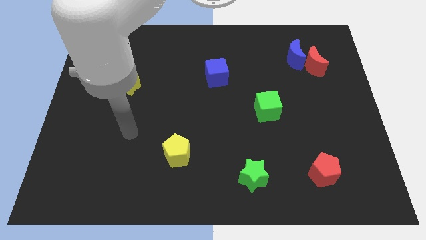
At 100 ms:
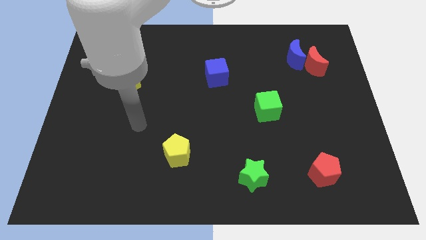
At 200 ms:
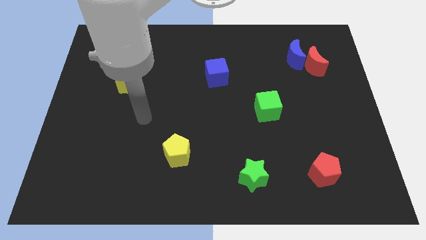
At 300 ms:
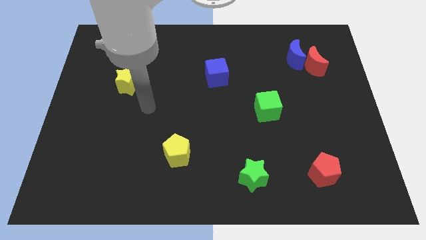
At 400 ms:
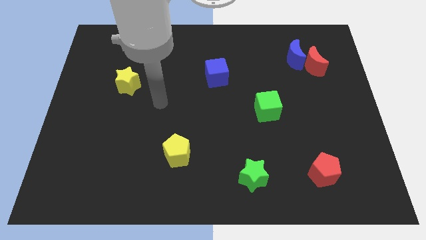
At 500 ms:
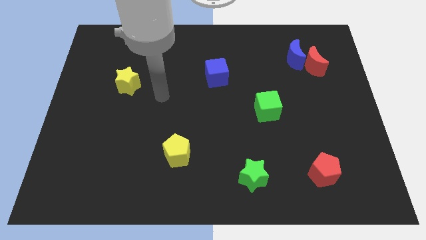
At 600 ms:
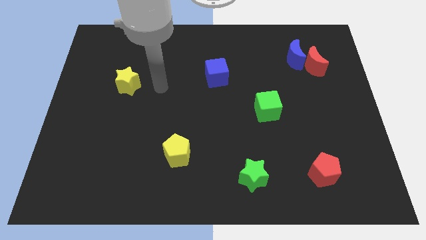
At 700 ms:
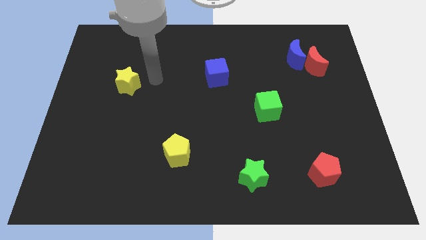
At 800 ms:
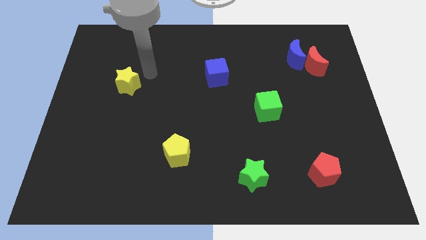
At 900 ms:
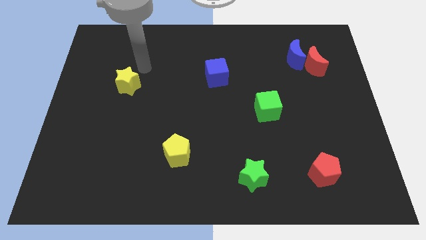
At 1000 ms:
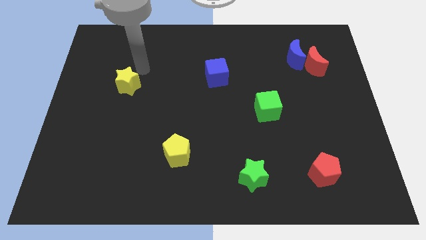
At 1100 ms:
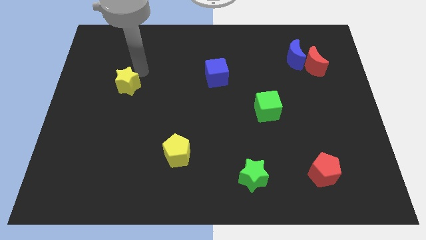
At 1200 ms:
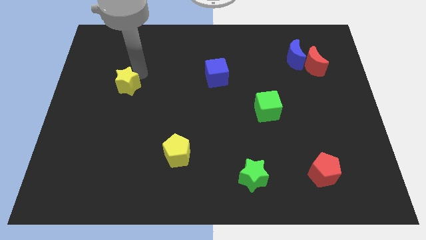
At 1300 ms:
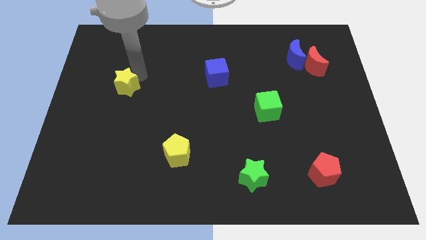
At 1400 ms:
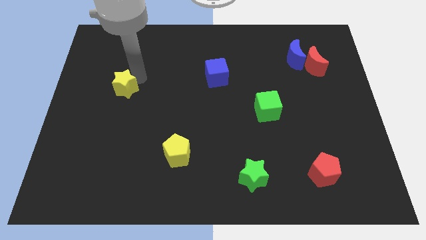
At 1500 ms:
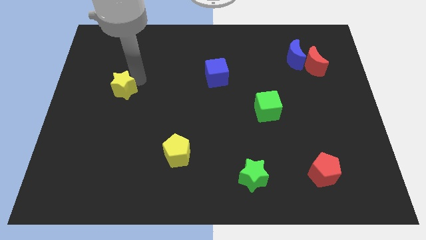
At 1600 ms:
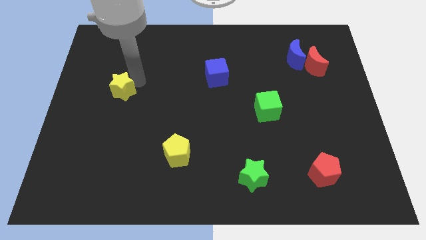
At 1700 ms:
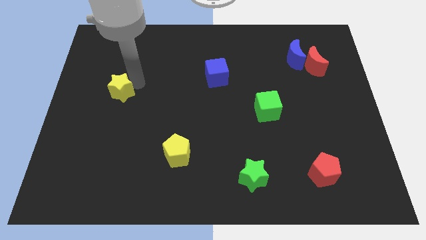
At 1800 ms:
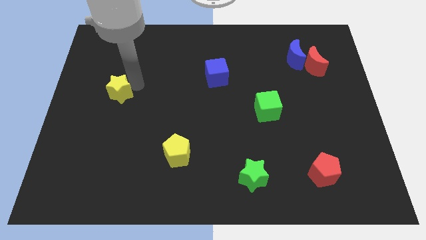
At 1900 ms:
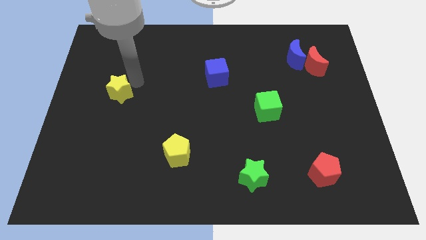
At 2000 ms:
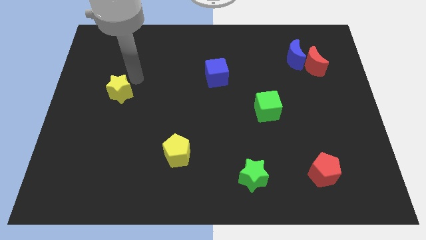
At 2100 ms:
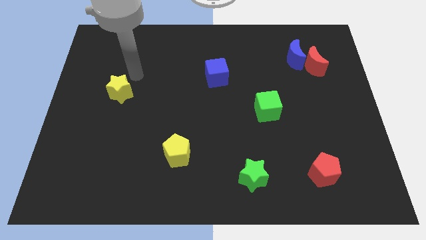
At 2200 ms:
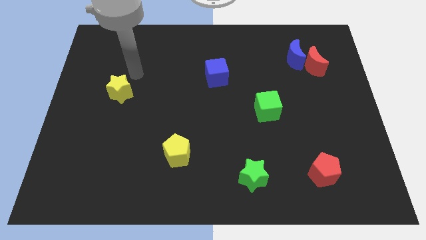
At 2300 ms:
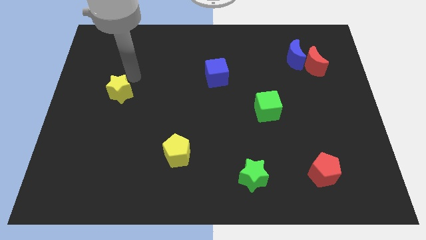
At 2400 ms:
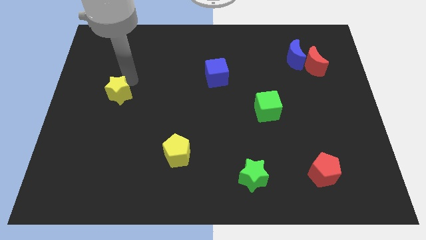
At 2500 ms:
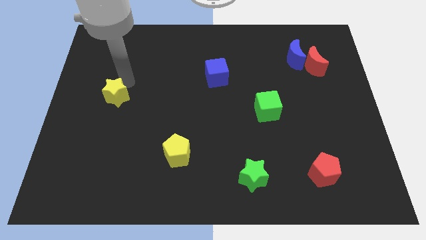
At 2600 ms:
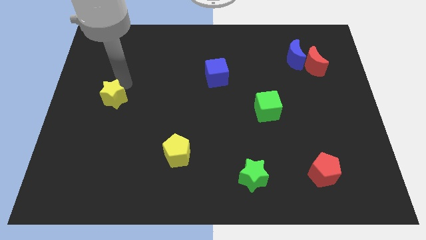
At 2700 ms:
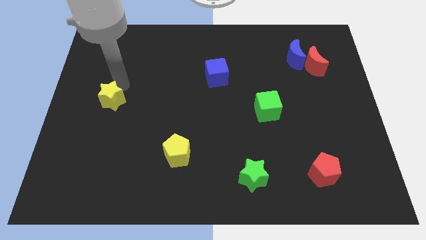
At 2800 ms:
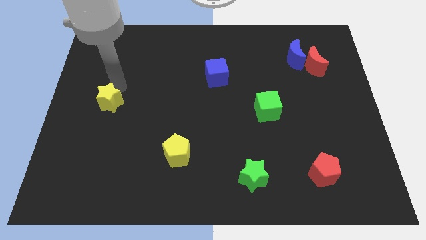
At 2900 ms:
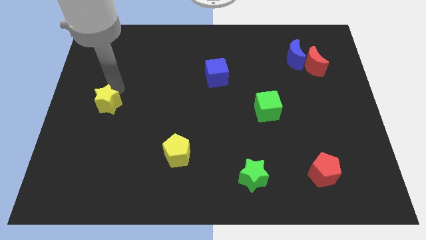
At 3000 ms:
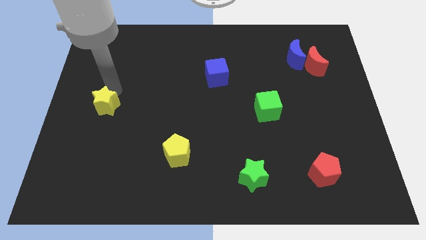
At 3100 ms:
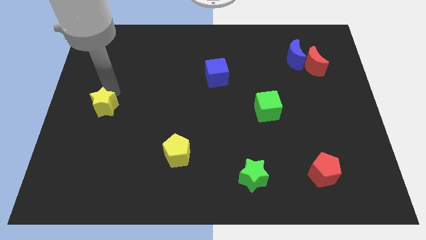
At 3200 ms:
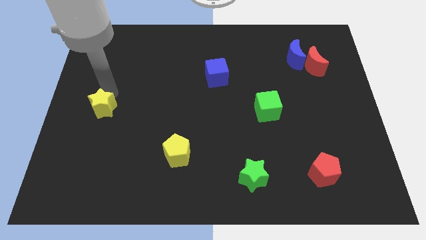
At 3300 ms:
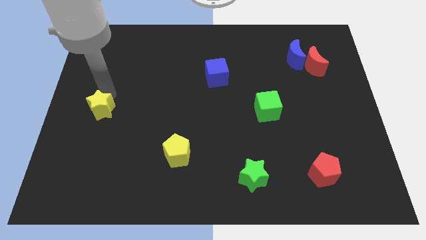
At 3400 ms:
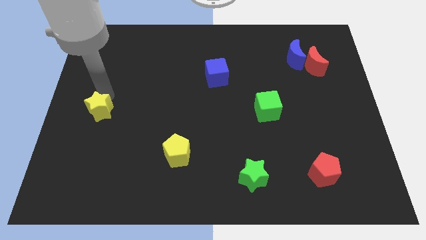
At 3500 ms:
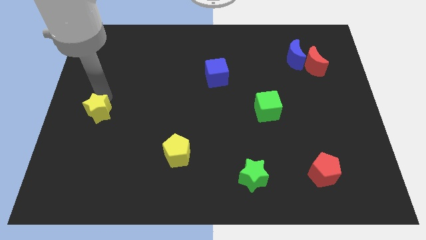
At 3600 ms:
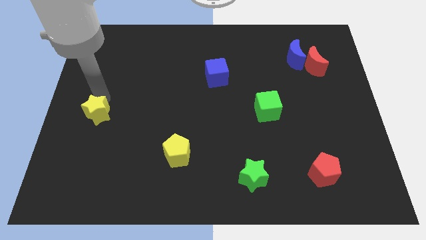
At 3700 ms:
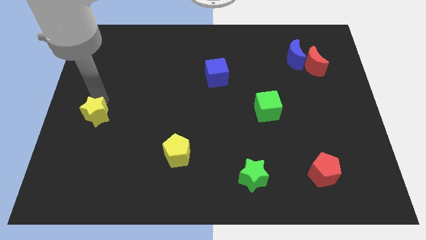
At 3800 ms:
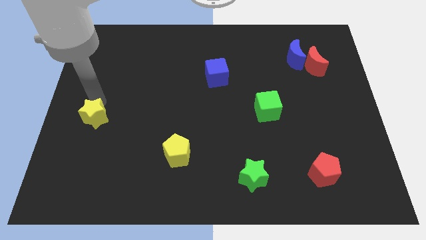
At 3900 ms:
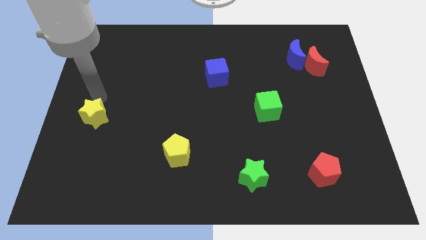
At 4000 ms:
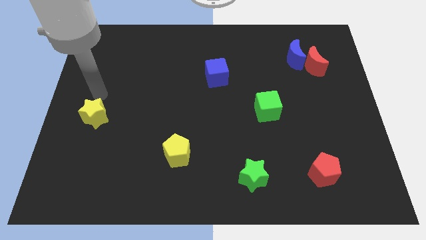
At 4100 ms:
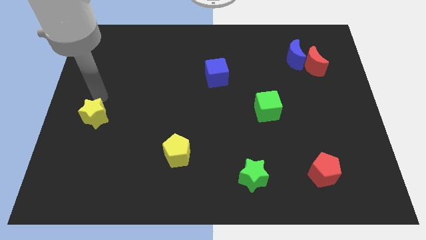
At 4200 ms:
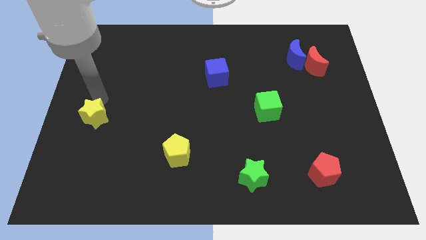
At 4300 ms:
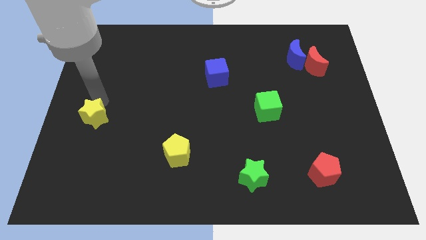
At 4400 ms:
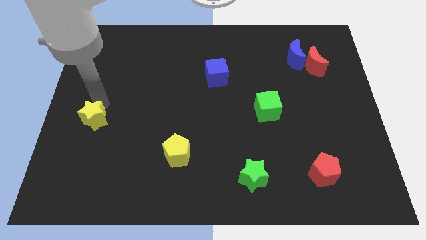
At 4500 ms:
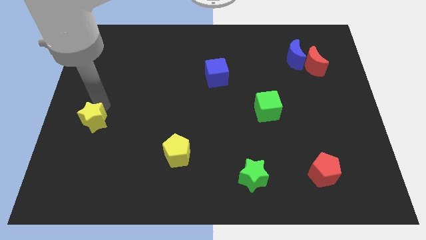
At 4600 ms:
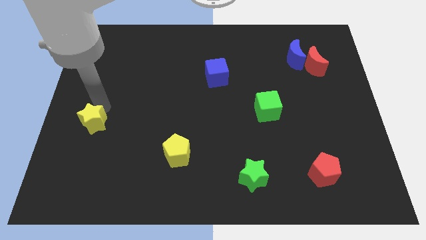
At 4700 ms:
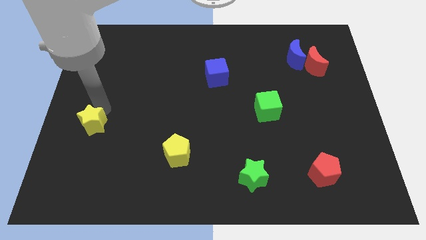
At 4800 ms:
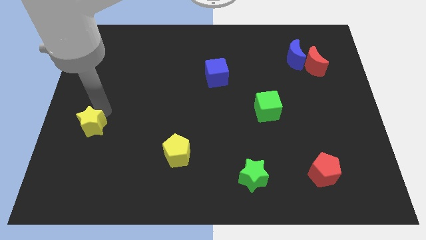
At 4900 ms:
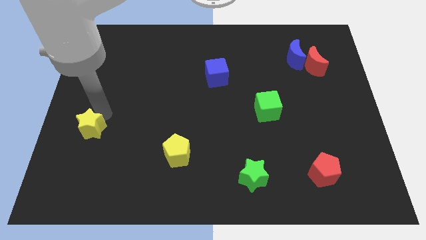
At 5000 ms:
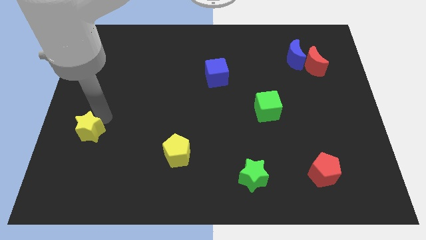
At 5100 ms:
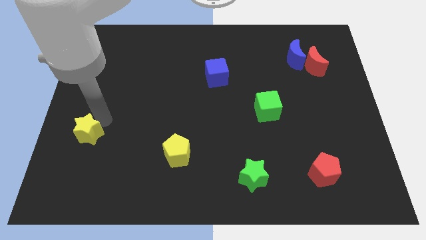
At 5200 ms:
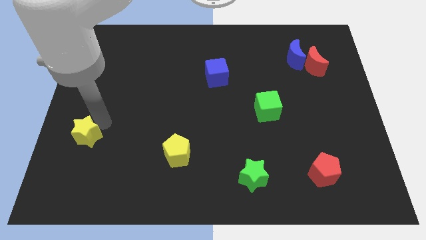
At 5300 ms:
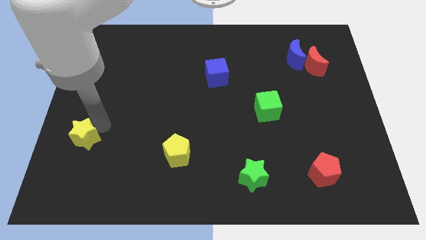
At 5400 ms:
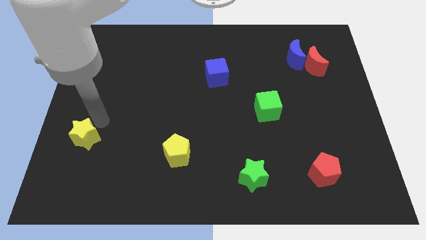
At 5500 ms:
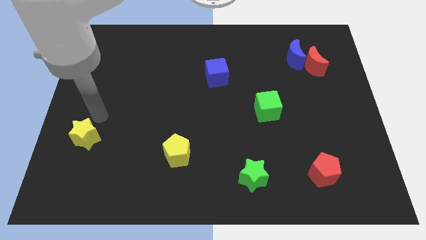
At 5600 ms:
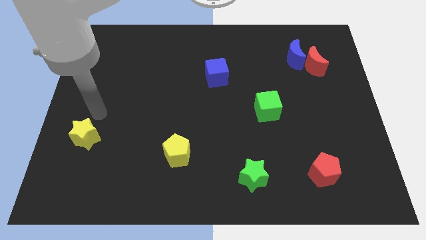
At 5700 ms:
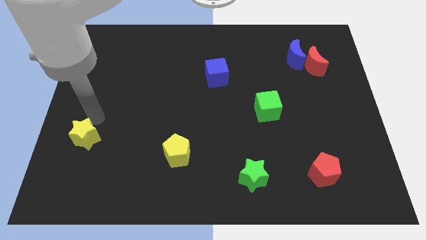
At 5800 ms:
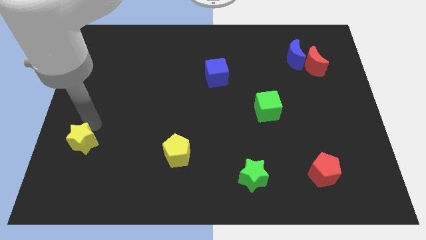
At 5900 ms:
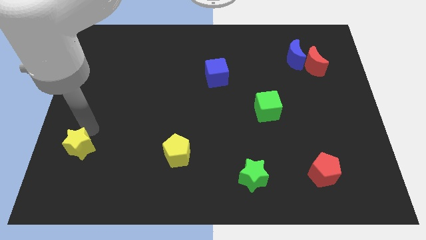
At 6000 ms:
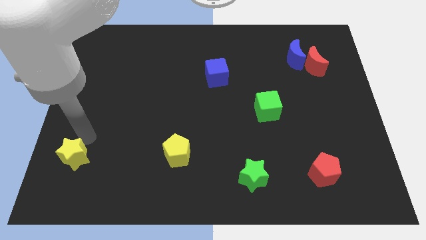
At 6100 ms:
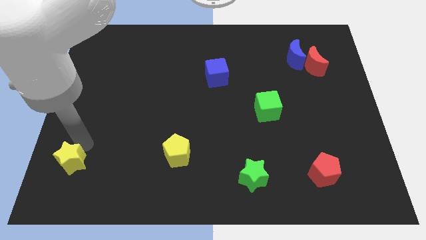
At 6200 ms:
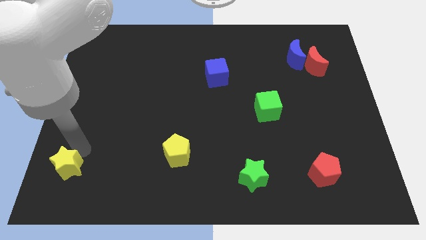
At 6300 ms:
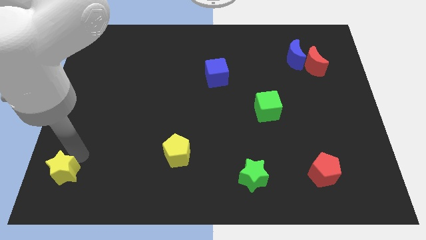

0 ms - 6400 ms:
push the yellow star to the bottom left
